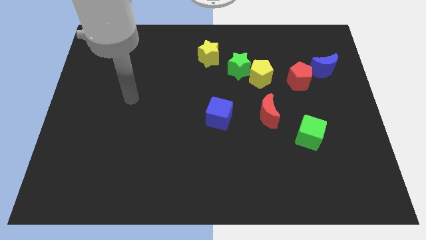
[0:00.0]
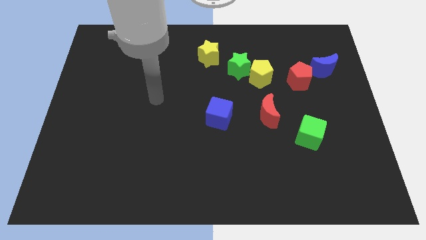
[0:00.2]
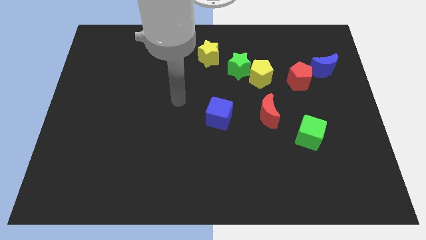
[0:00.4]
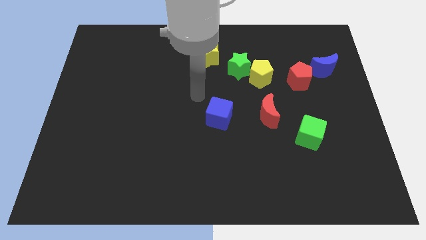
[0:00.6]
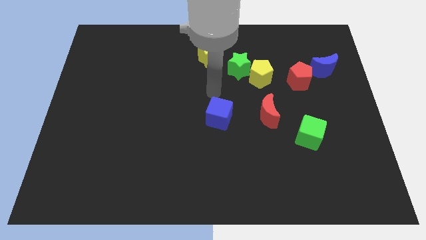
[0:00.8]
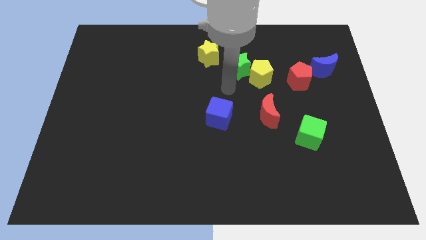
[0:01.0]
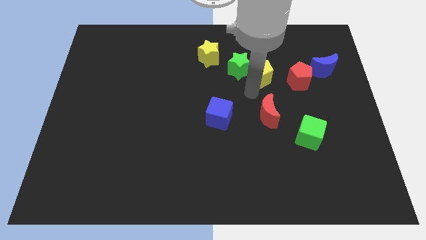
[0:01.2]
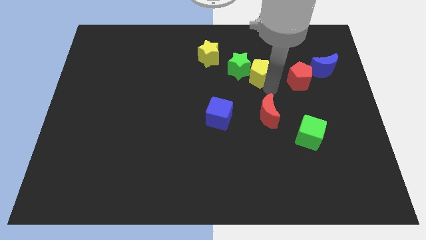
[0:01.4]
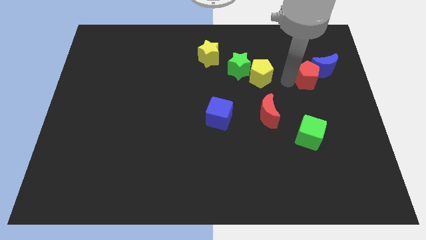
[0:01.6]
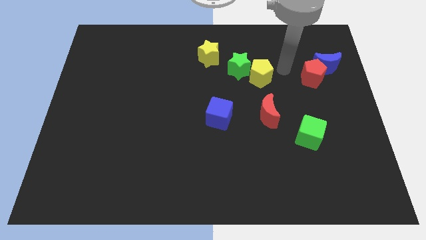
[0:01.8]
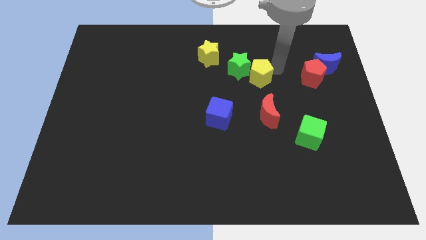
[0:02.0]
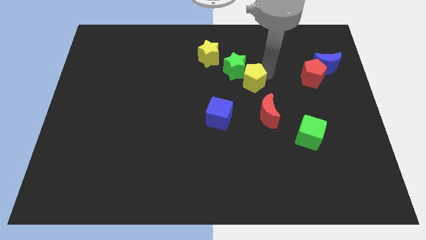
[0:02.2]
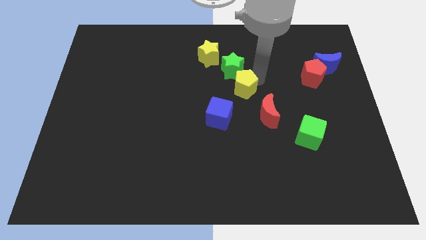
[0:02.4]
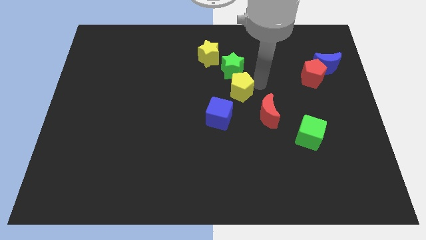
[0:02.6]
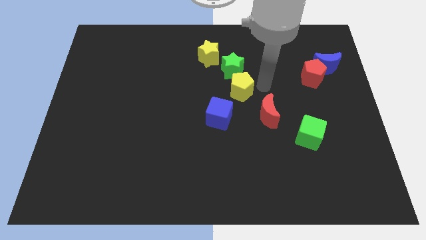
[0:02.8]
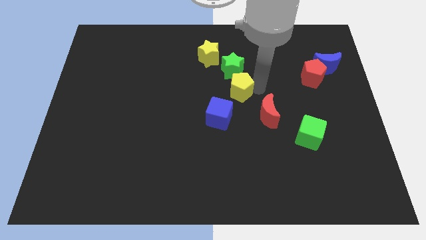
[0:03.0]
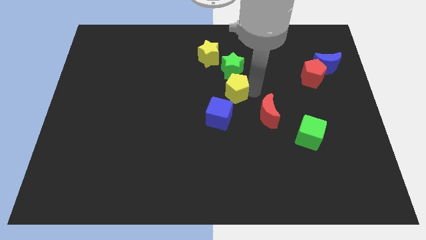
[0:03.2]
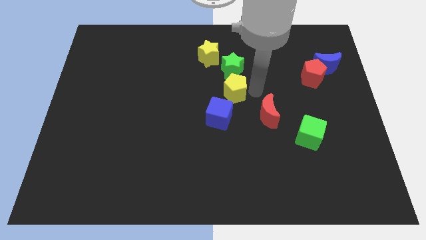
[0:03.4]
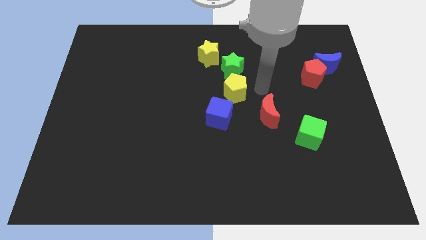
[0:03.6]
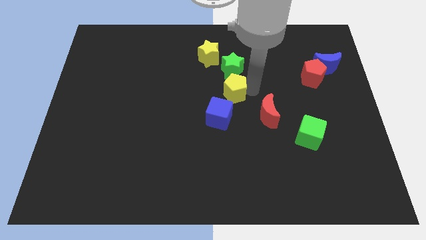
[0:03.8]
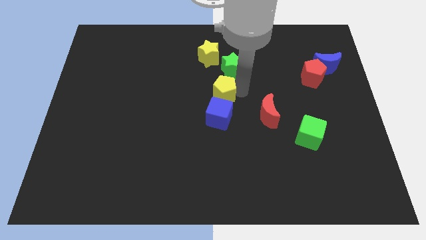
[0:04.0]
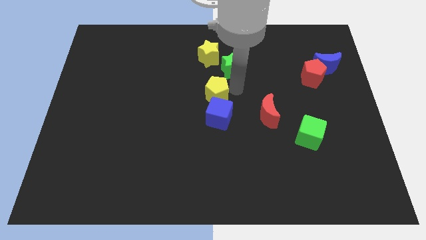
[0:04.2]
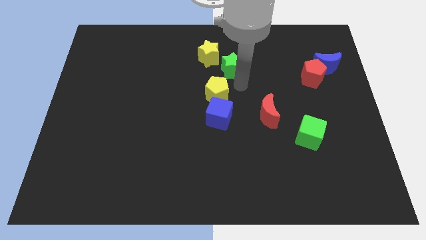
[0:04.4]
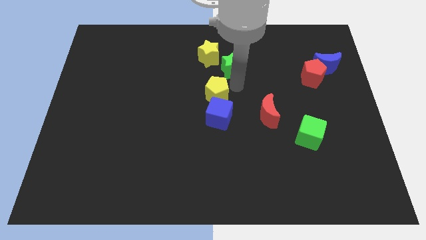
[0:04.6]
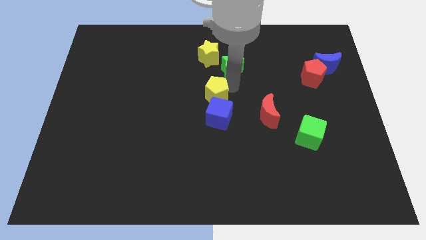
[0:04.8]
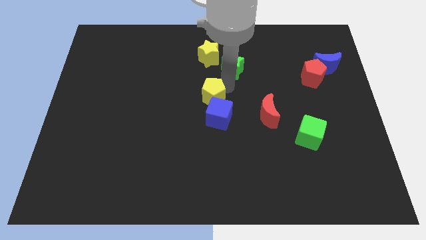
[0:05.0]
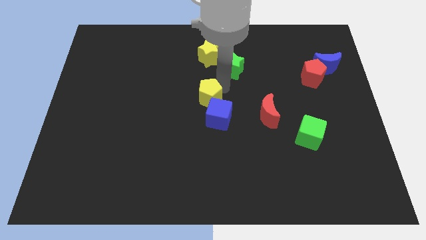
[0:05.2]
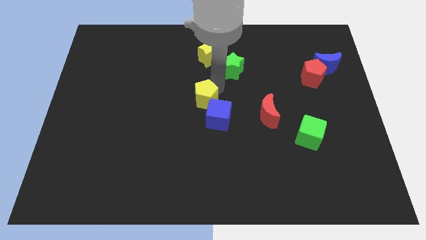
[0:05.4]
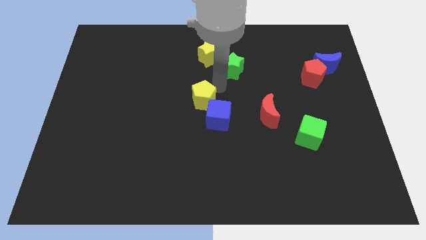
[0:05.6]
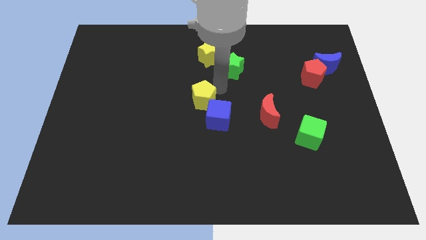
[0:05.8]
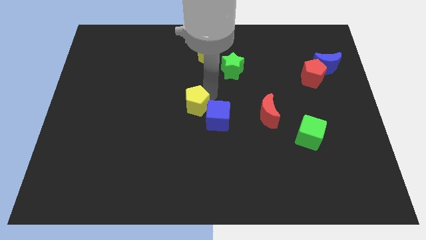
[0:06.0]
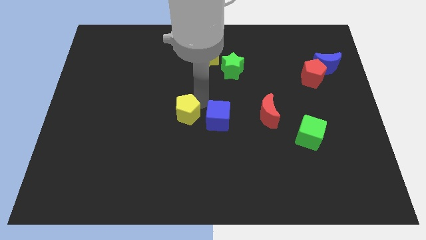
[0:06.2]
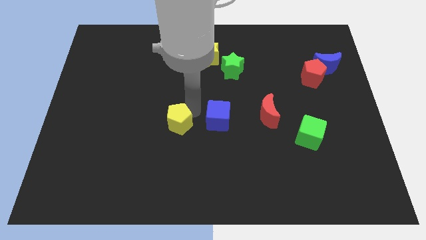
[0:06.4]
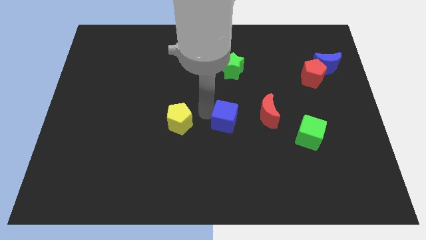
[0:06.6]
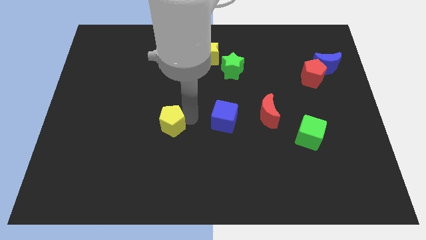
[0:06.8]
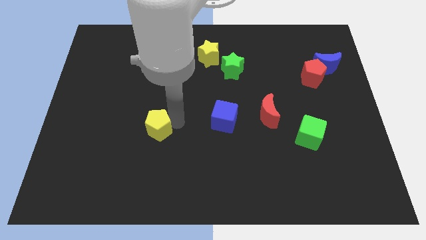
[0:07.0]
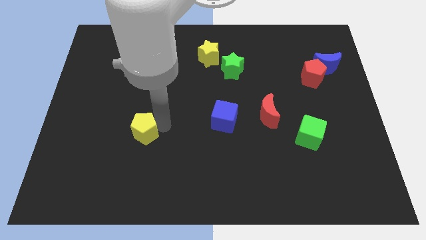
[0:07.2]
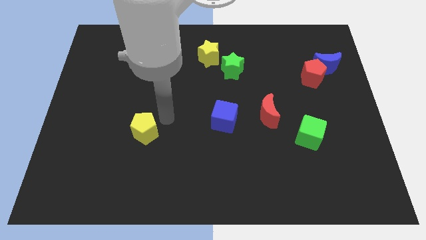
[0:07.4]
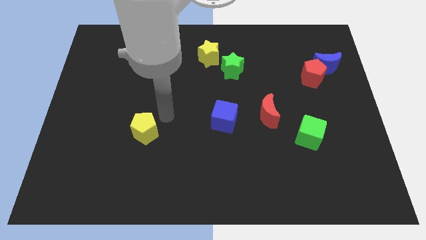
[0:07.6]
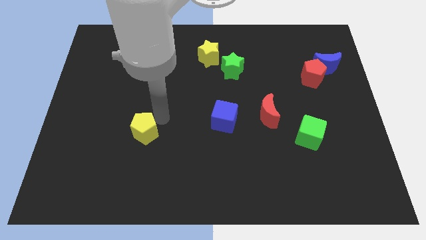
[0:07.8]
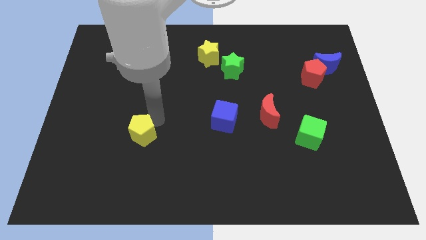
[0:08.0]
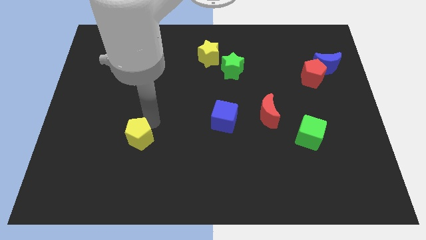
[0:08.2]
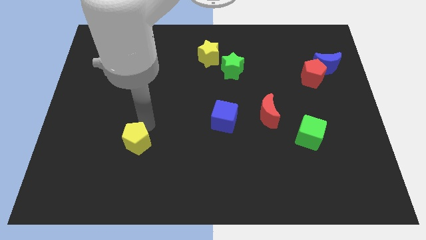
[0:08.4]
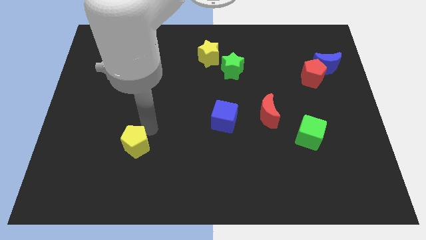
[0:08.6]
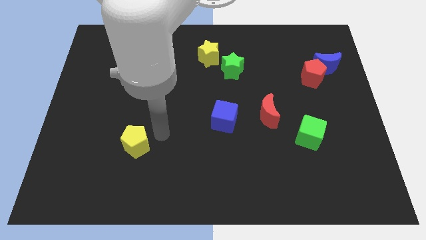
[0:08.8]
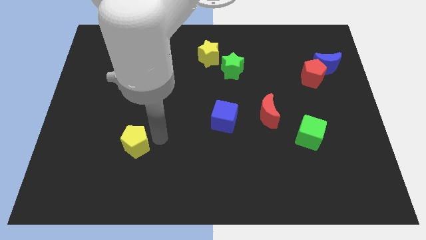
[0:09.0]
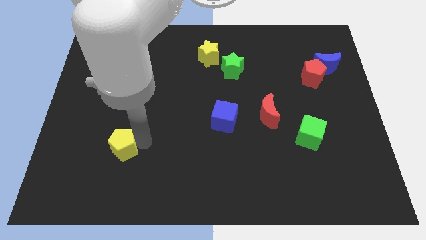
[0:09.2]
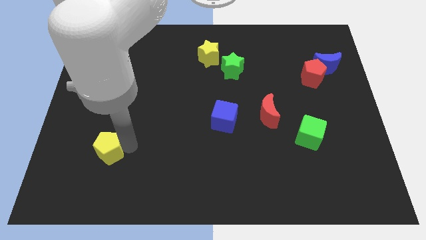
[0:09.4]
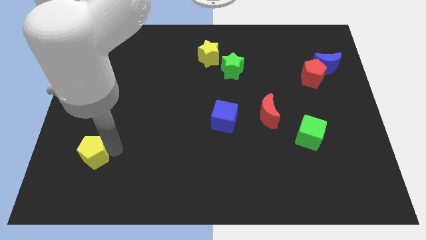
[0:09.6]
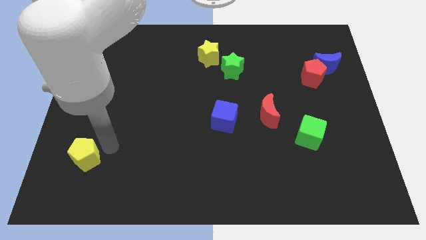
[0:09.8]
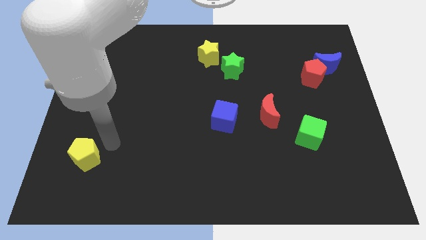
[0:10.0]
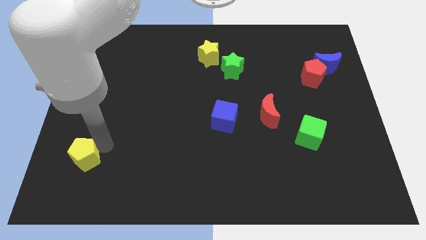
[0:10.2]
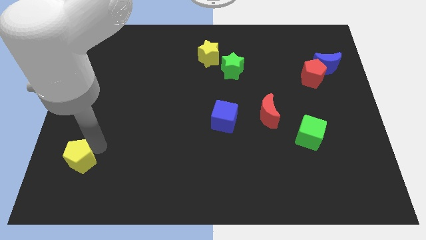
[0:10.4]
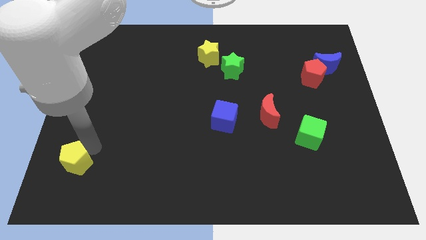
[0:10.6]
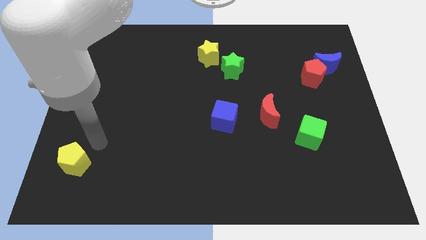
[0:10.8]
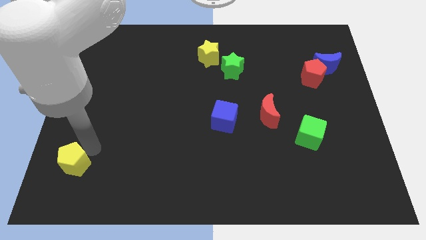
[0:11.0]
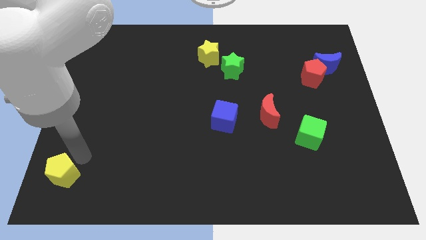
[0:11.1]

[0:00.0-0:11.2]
move the yellow pentagon to the bottom left corner

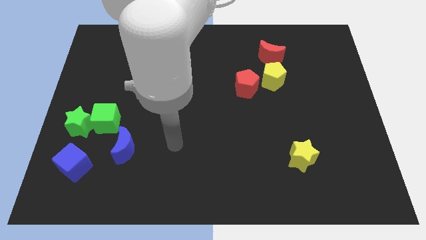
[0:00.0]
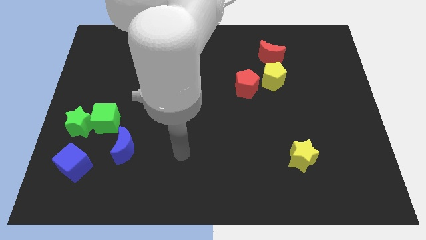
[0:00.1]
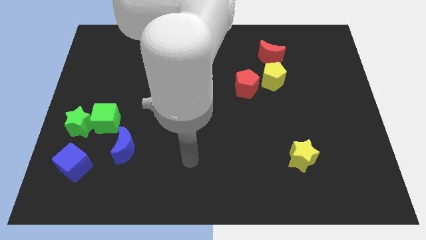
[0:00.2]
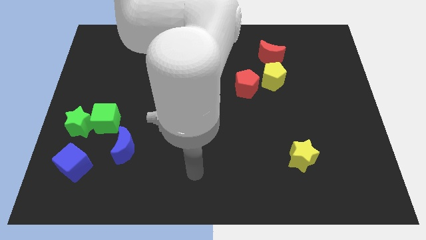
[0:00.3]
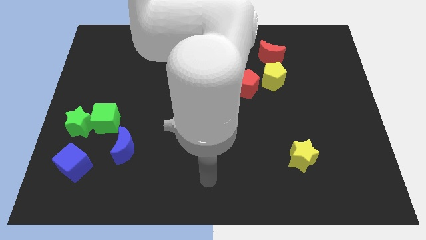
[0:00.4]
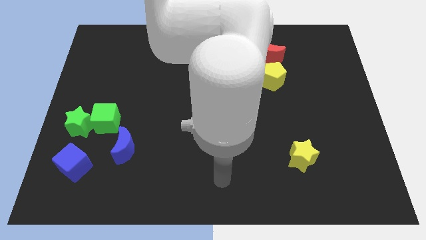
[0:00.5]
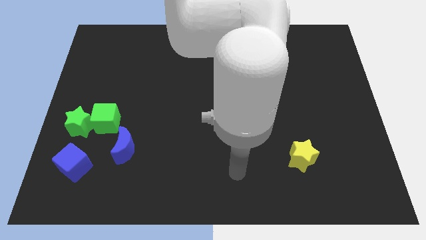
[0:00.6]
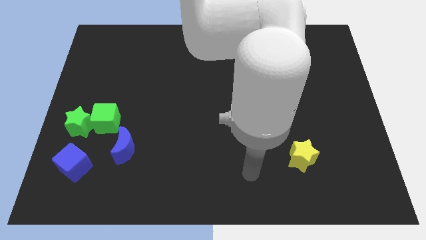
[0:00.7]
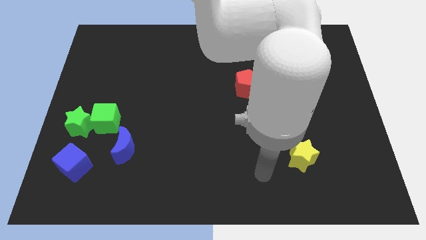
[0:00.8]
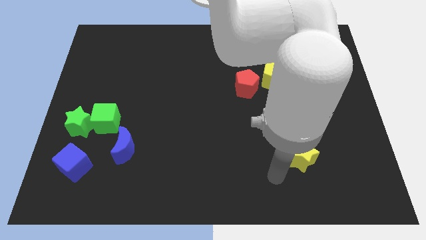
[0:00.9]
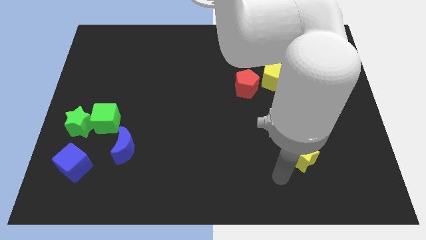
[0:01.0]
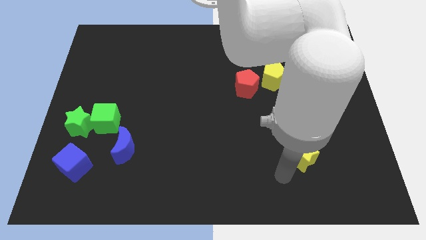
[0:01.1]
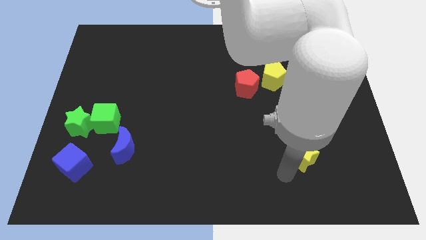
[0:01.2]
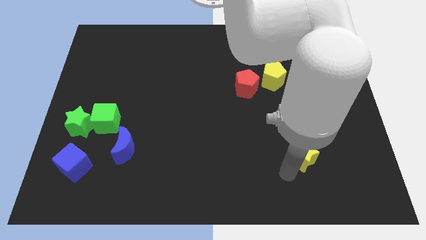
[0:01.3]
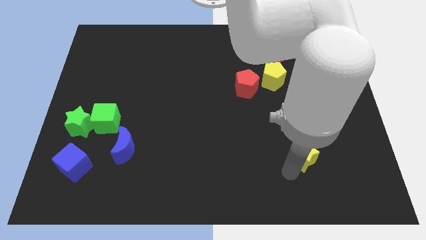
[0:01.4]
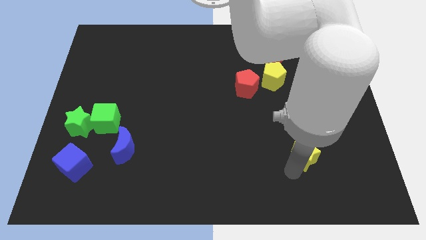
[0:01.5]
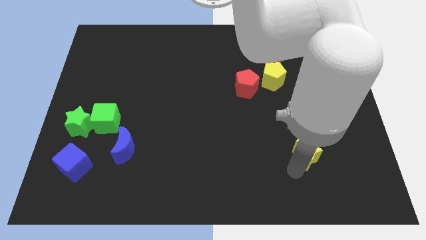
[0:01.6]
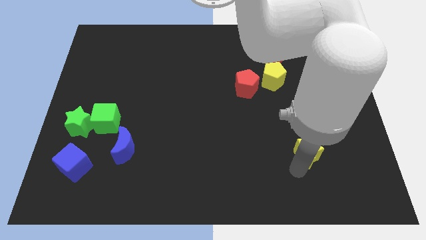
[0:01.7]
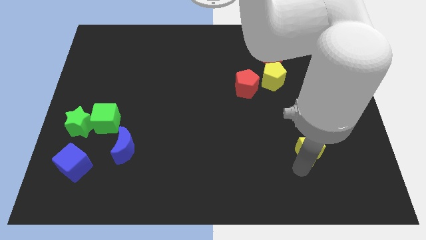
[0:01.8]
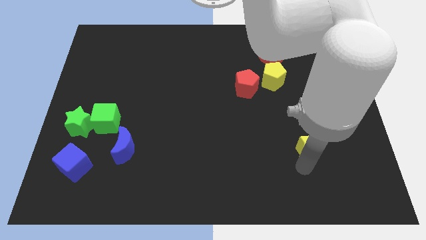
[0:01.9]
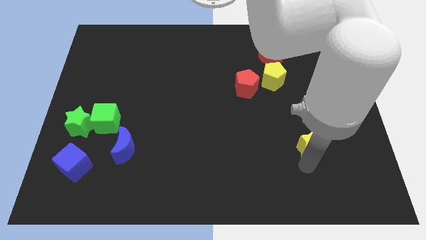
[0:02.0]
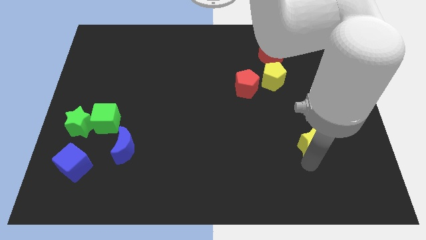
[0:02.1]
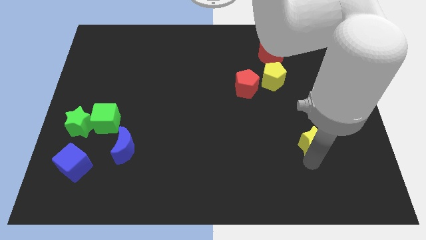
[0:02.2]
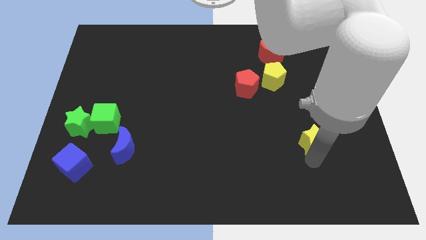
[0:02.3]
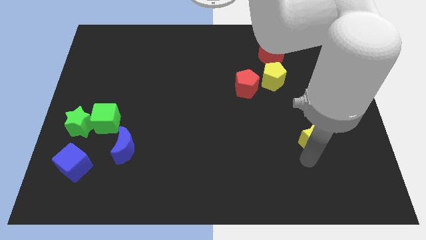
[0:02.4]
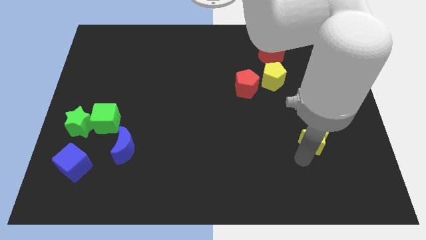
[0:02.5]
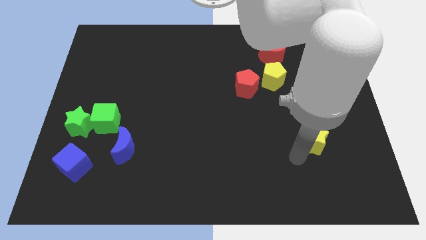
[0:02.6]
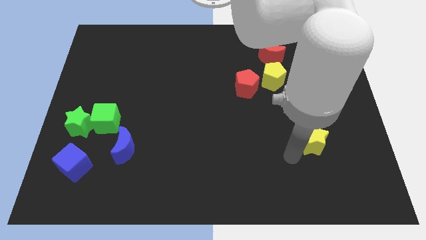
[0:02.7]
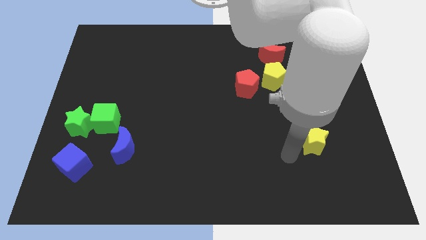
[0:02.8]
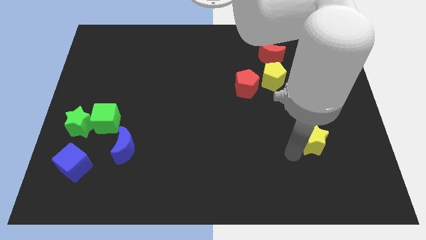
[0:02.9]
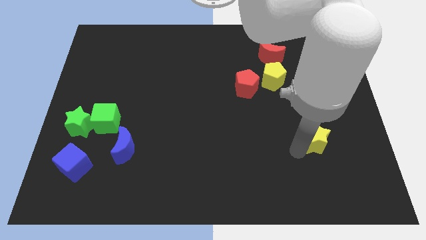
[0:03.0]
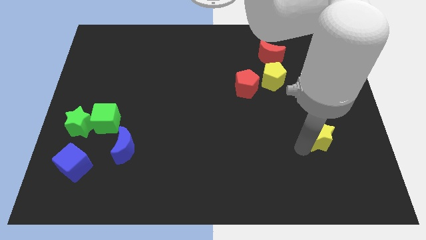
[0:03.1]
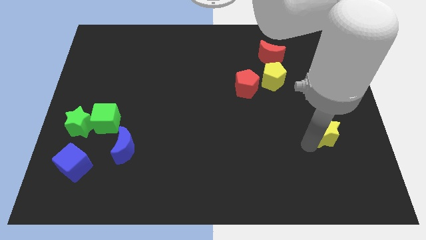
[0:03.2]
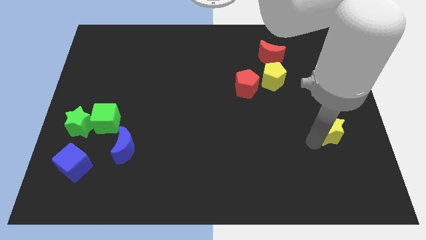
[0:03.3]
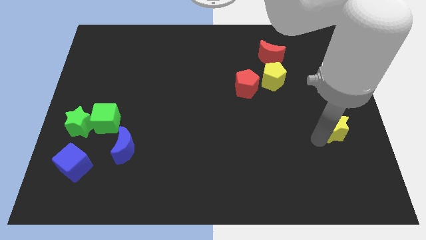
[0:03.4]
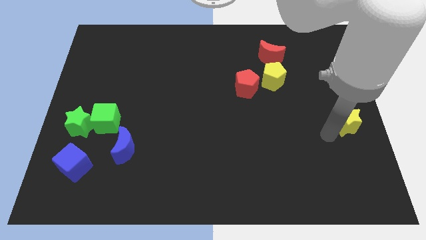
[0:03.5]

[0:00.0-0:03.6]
push the yellow star to the center right
